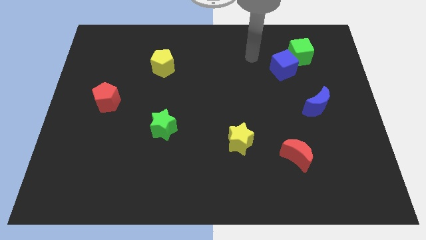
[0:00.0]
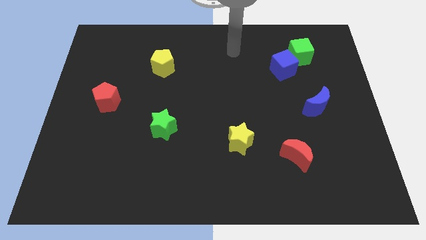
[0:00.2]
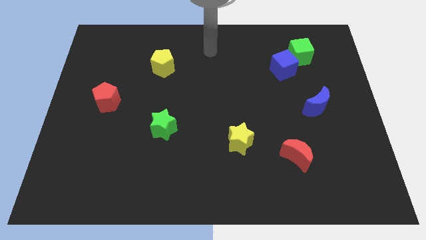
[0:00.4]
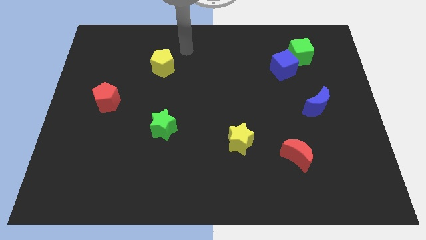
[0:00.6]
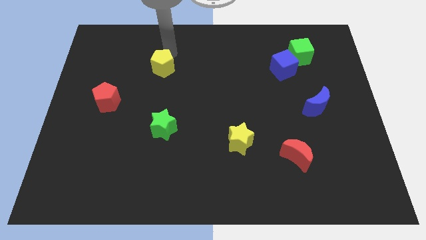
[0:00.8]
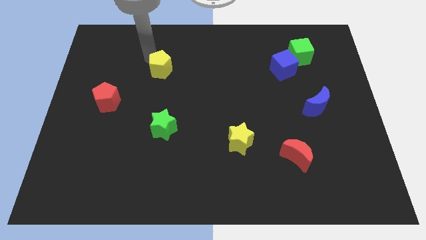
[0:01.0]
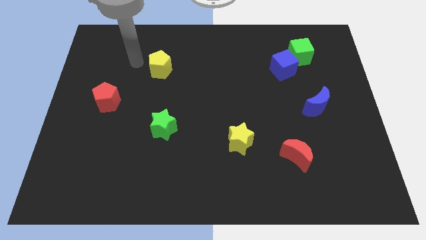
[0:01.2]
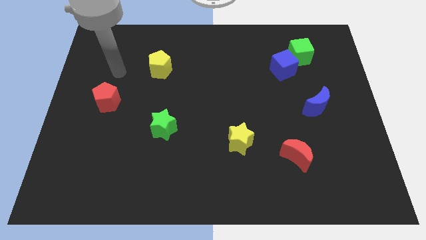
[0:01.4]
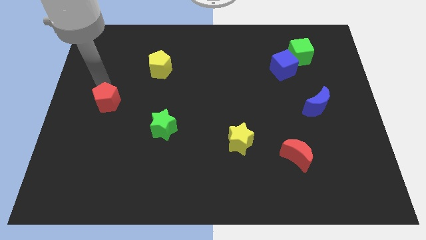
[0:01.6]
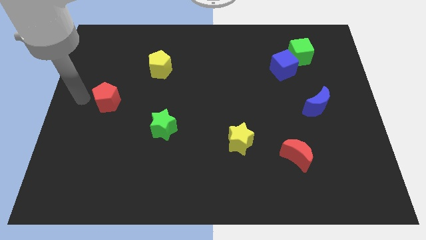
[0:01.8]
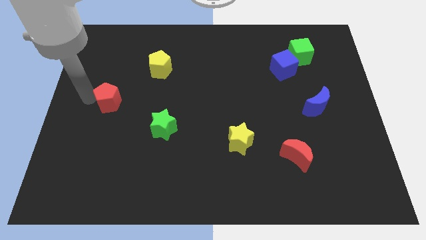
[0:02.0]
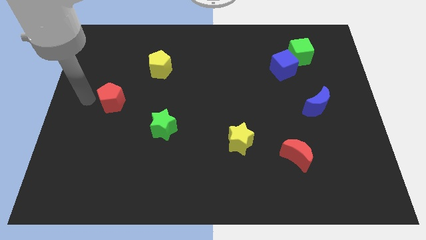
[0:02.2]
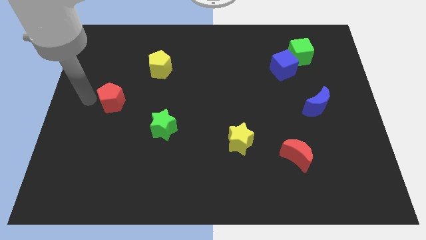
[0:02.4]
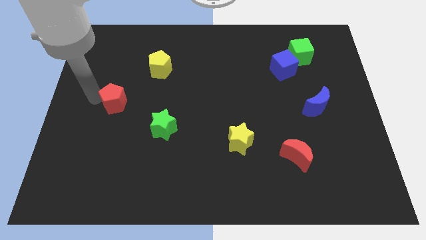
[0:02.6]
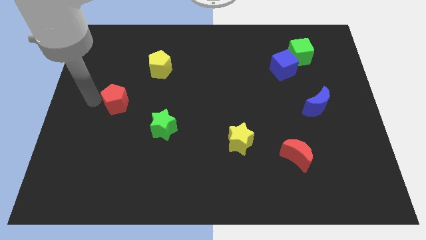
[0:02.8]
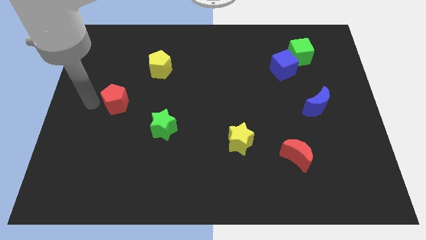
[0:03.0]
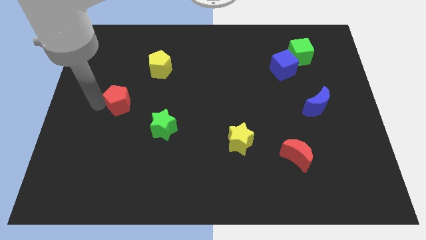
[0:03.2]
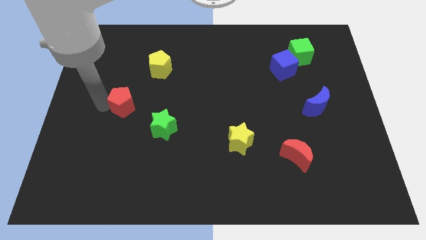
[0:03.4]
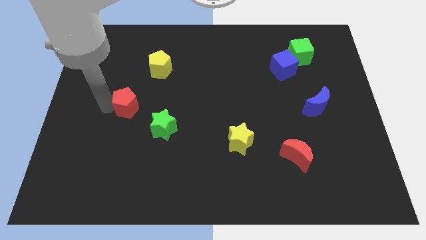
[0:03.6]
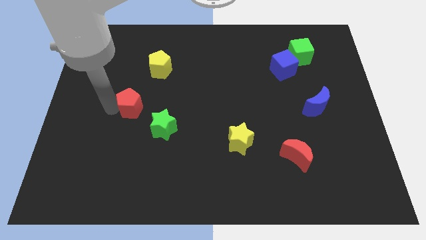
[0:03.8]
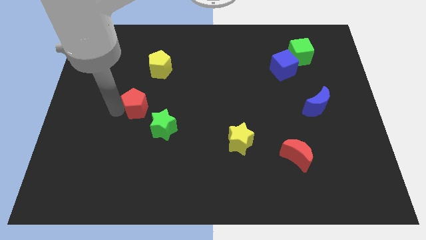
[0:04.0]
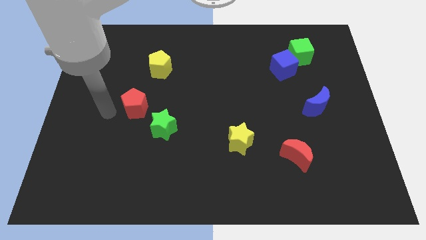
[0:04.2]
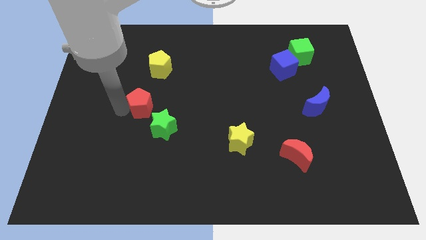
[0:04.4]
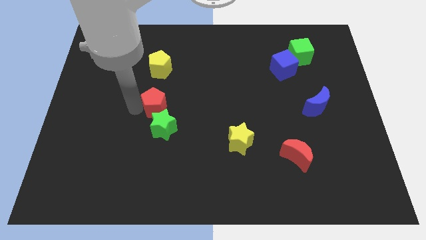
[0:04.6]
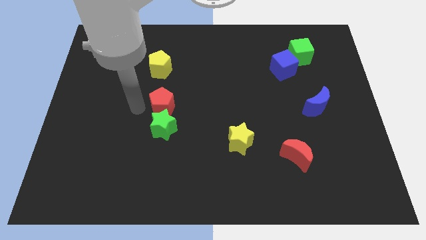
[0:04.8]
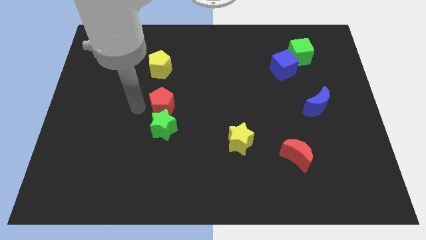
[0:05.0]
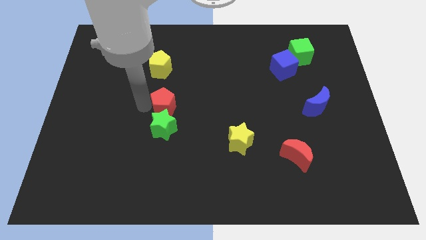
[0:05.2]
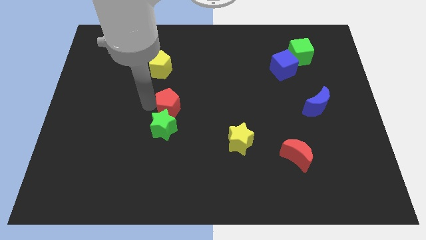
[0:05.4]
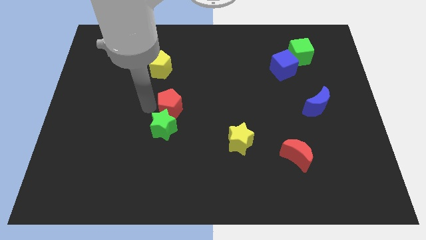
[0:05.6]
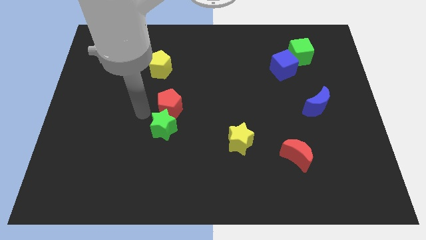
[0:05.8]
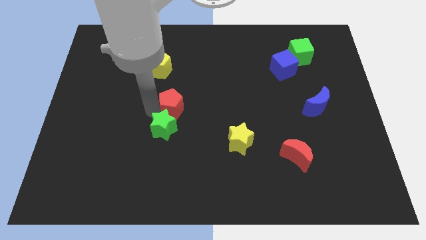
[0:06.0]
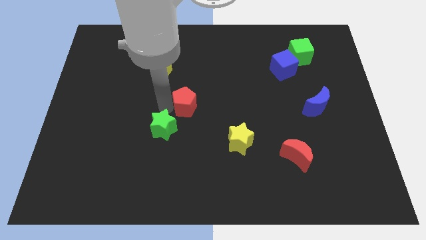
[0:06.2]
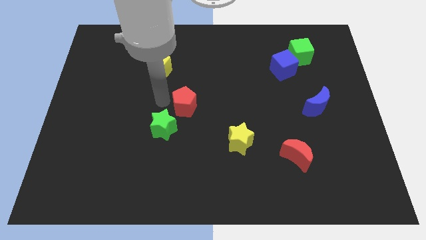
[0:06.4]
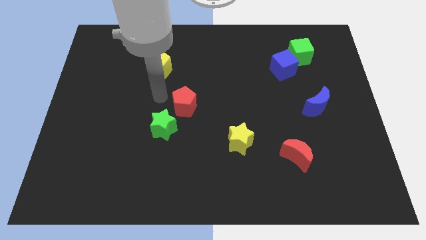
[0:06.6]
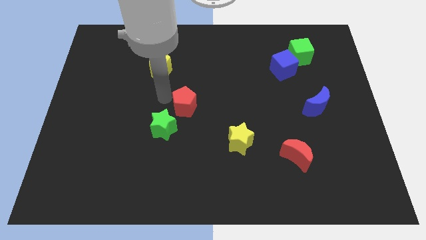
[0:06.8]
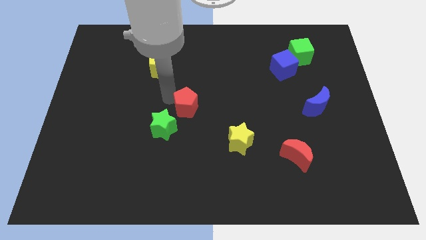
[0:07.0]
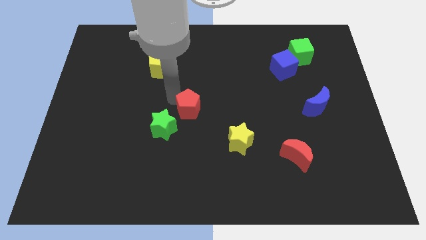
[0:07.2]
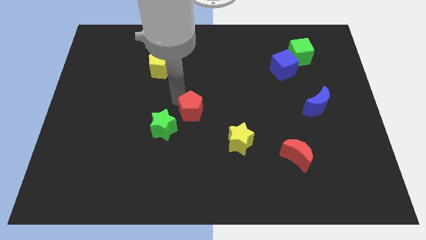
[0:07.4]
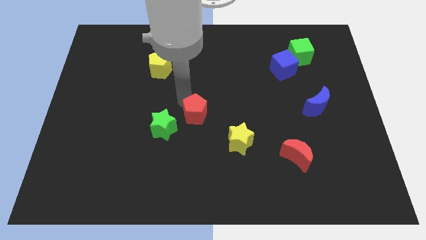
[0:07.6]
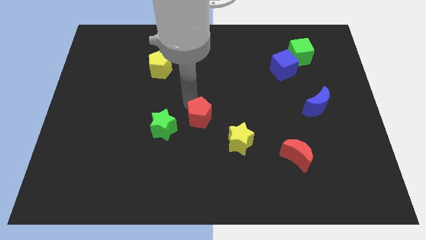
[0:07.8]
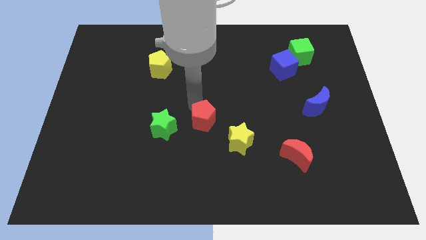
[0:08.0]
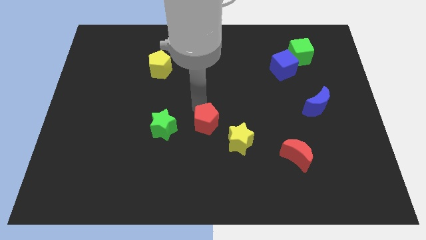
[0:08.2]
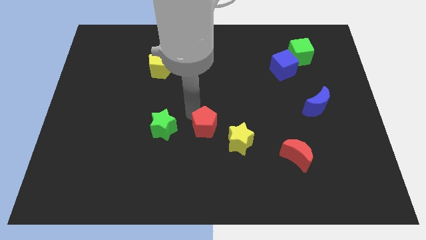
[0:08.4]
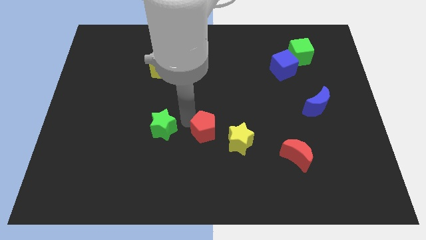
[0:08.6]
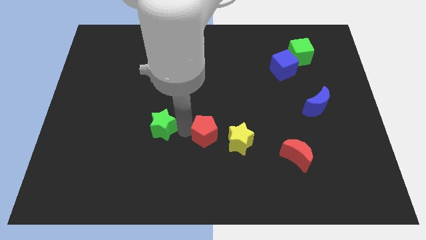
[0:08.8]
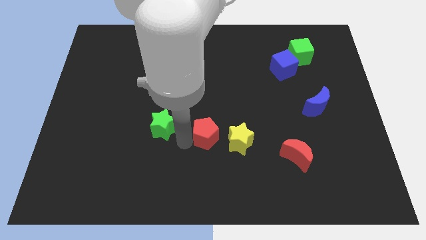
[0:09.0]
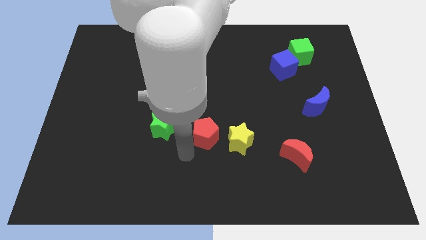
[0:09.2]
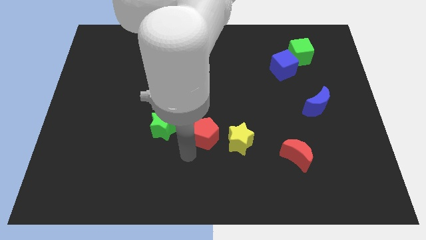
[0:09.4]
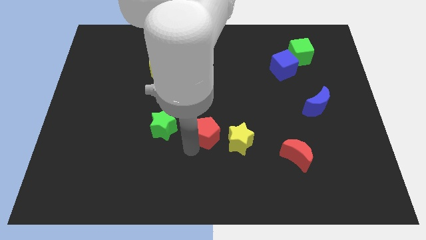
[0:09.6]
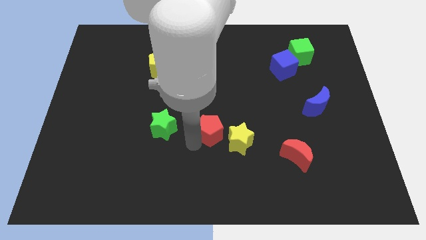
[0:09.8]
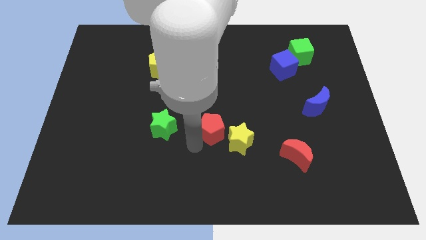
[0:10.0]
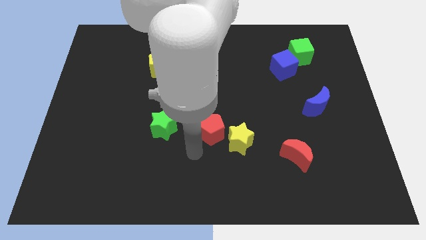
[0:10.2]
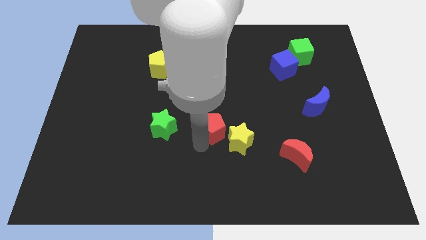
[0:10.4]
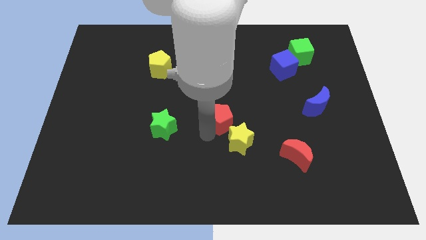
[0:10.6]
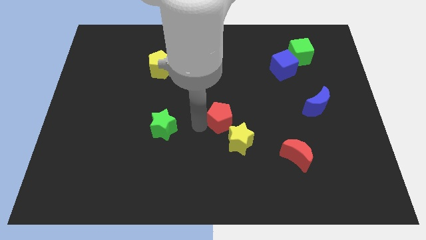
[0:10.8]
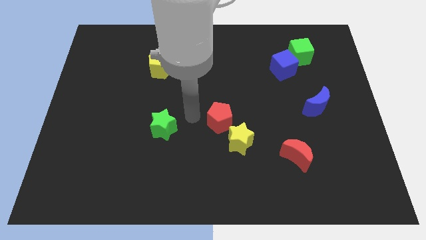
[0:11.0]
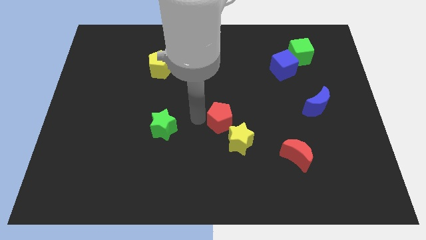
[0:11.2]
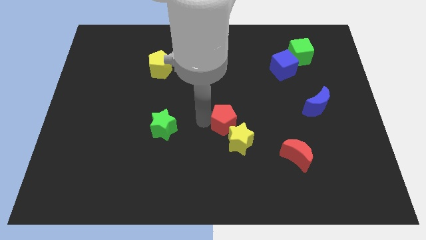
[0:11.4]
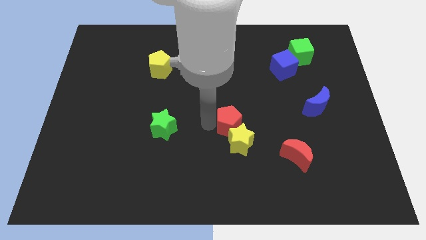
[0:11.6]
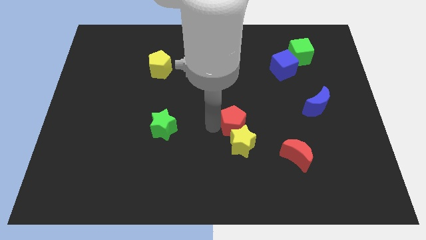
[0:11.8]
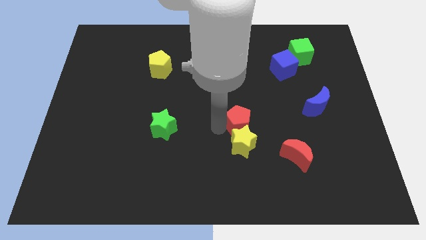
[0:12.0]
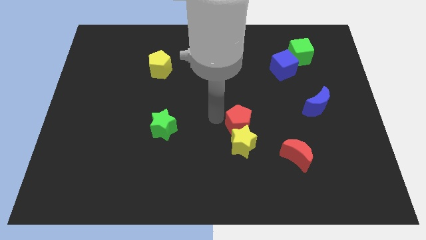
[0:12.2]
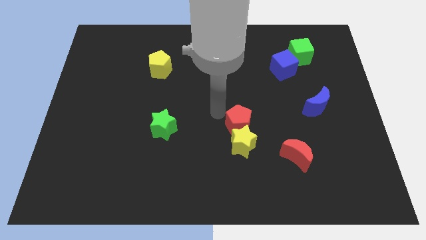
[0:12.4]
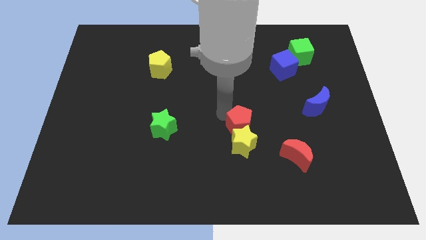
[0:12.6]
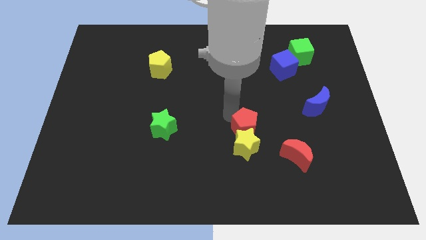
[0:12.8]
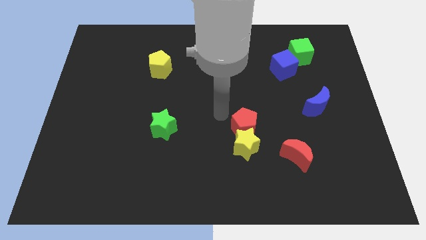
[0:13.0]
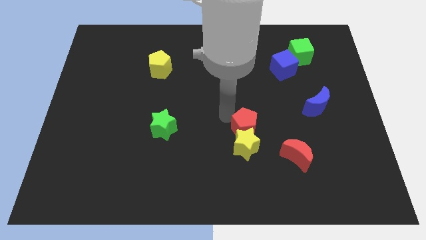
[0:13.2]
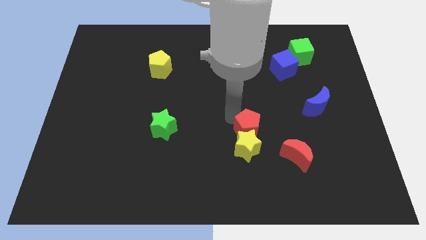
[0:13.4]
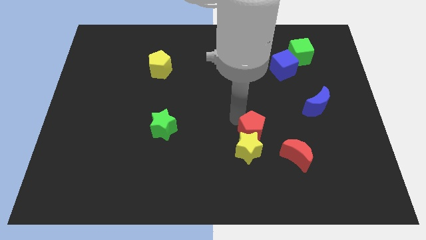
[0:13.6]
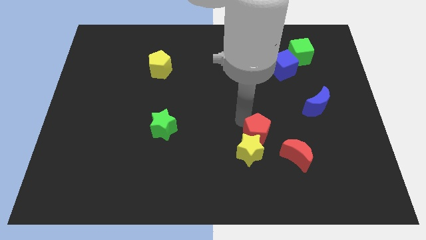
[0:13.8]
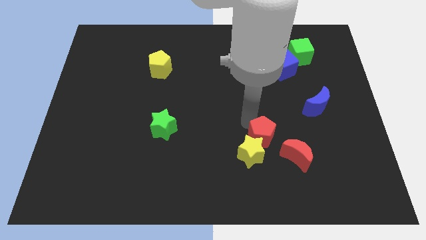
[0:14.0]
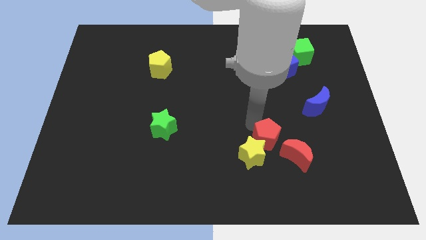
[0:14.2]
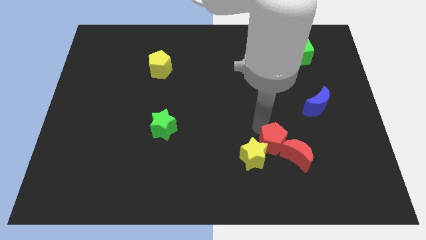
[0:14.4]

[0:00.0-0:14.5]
move the red pentagon to the red moon
